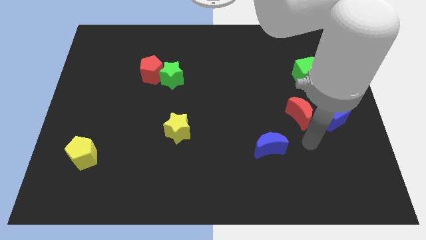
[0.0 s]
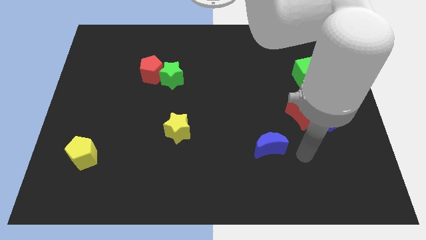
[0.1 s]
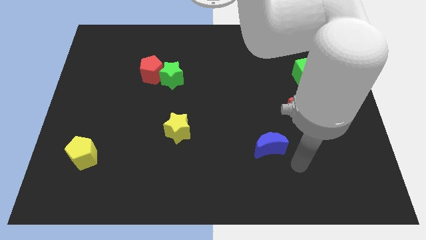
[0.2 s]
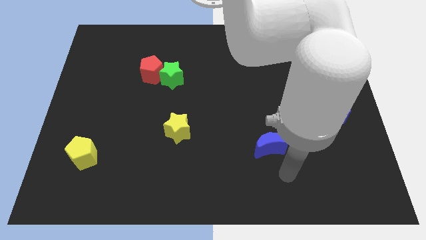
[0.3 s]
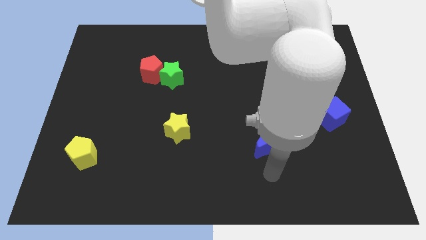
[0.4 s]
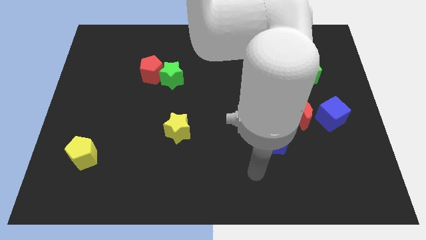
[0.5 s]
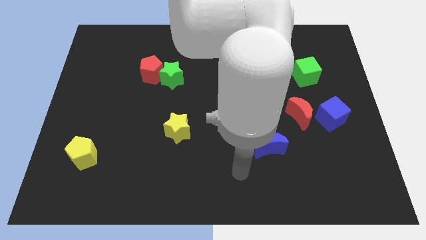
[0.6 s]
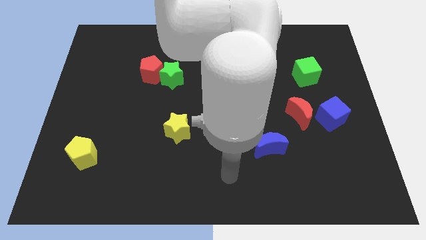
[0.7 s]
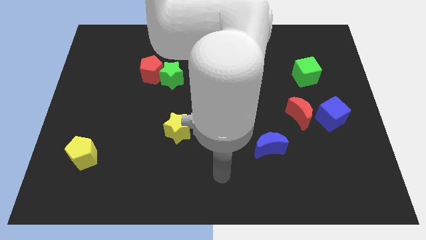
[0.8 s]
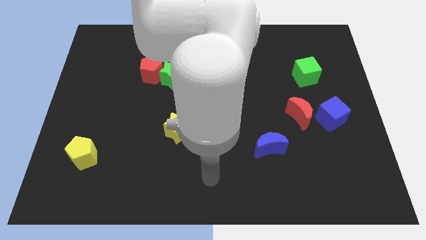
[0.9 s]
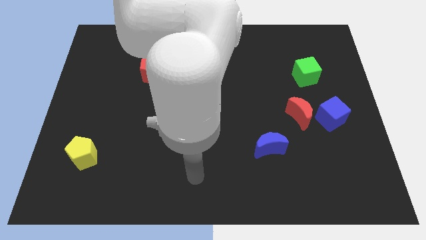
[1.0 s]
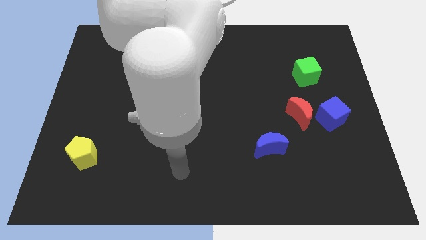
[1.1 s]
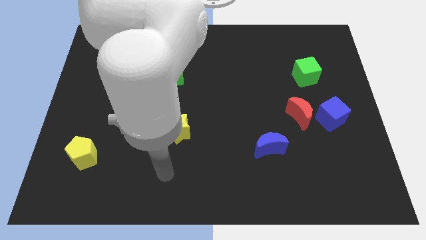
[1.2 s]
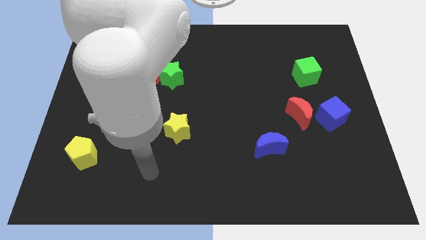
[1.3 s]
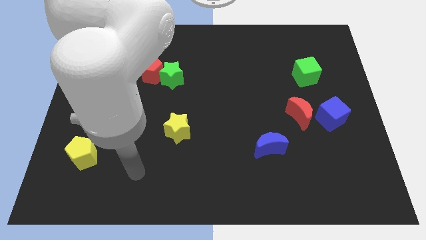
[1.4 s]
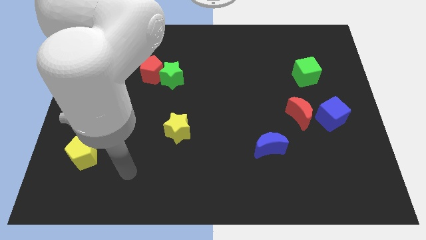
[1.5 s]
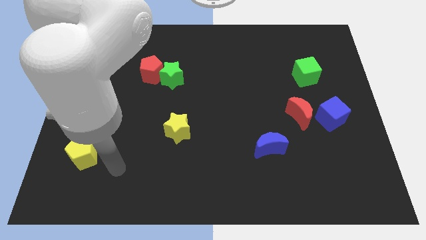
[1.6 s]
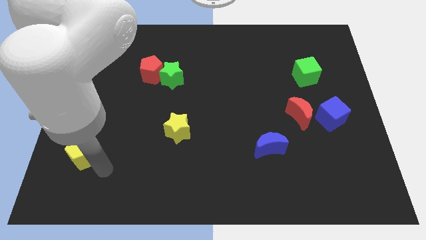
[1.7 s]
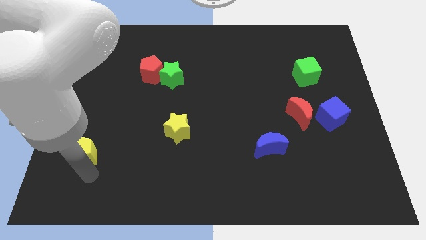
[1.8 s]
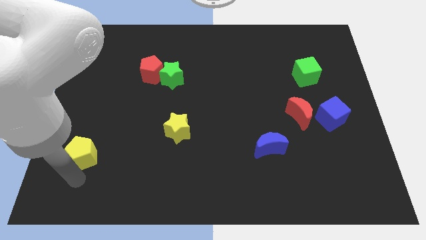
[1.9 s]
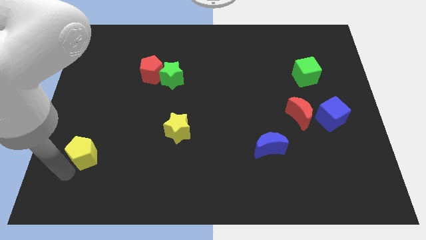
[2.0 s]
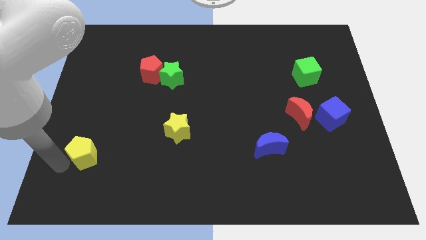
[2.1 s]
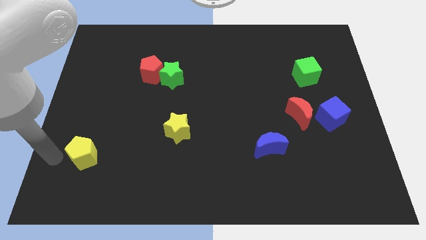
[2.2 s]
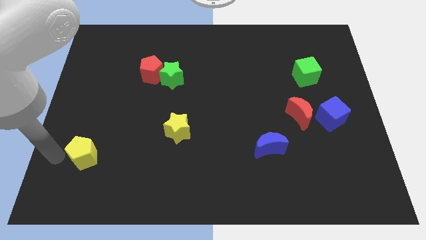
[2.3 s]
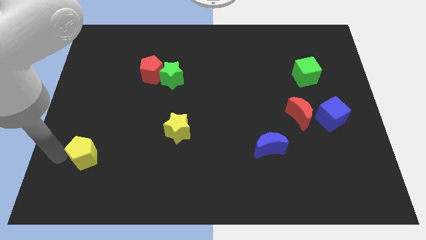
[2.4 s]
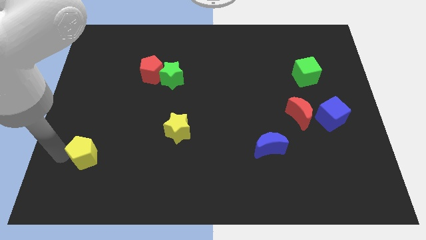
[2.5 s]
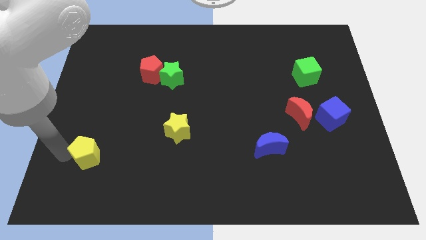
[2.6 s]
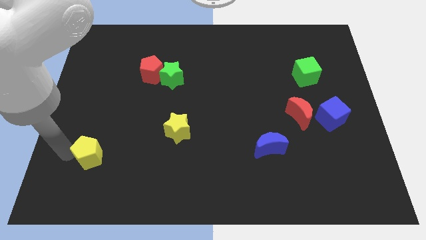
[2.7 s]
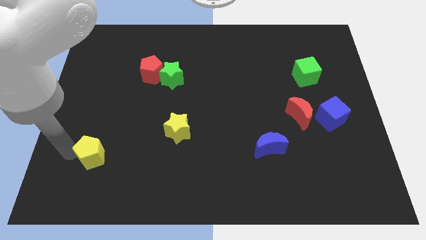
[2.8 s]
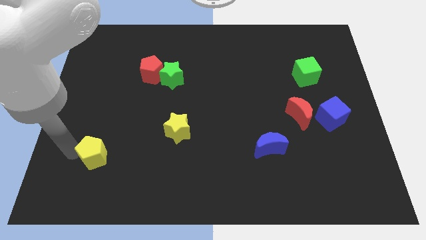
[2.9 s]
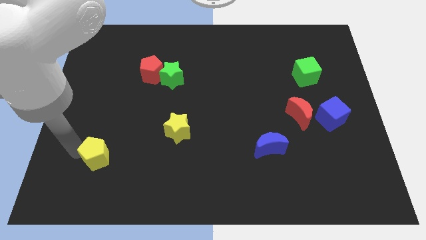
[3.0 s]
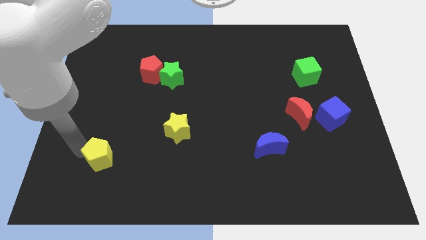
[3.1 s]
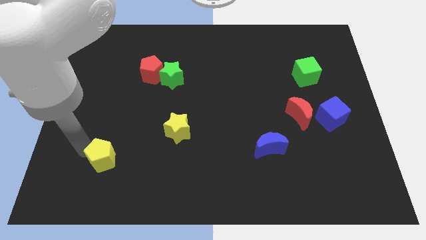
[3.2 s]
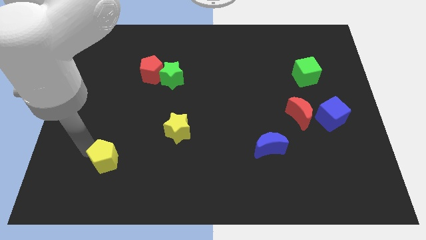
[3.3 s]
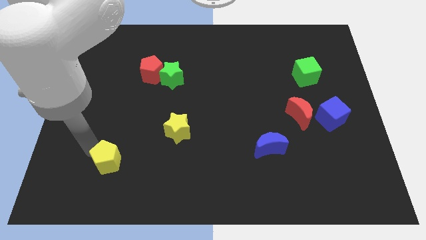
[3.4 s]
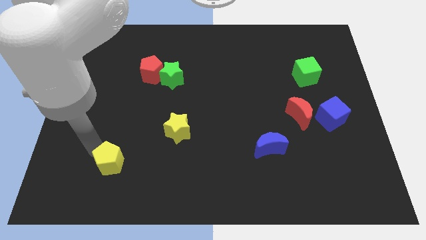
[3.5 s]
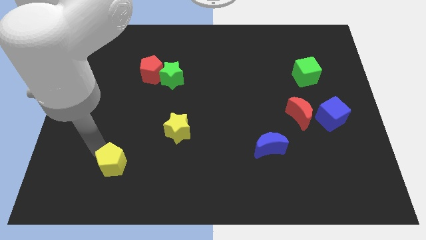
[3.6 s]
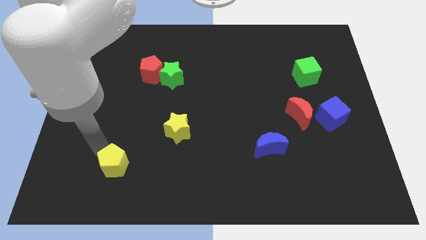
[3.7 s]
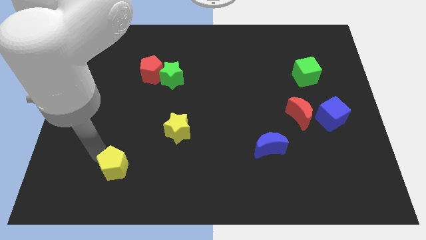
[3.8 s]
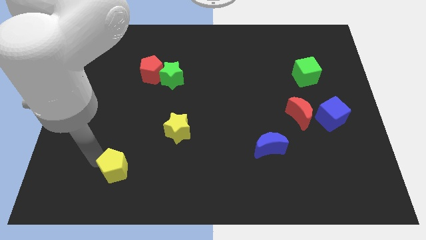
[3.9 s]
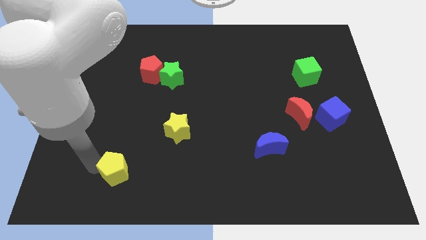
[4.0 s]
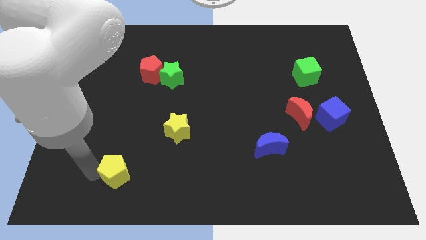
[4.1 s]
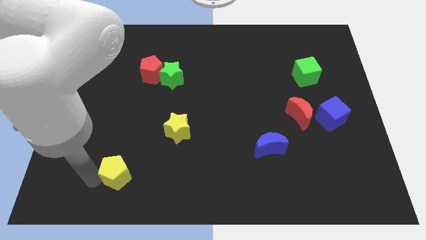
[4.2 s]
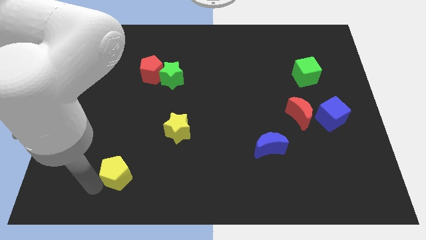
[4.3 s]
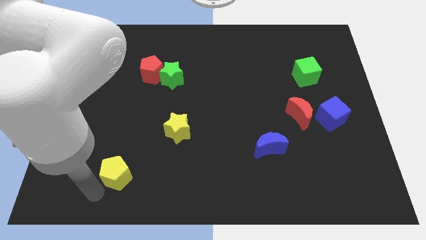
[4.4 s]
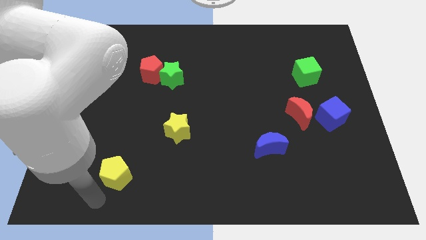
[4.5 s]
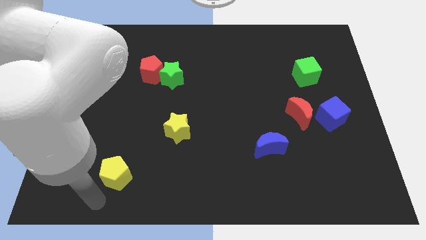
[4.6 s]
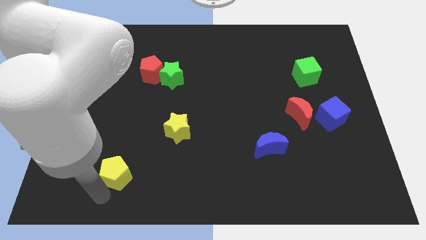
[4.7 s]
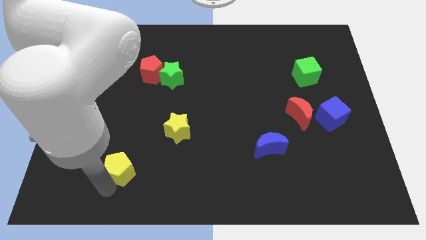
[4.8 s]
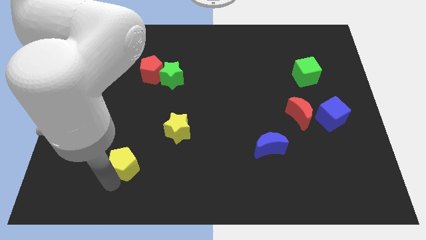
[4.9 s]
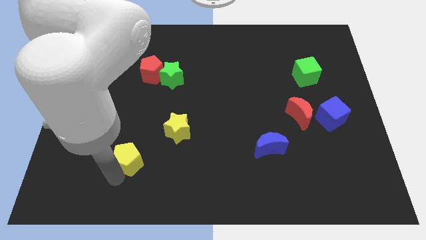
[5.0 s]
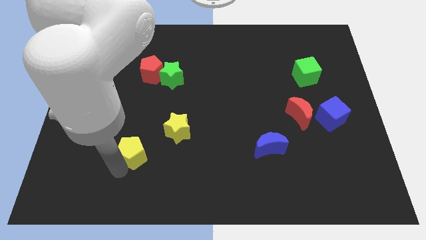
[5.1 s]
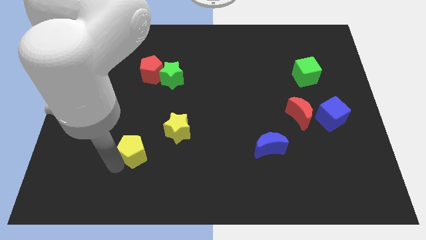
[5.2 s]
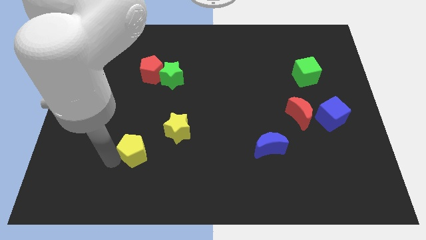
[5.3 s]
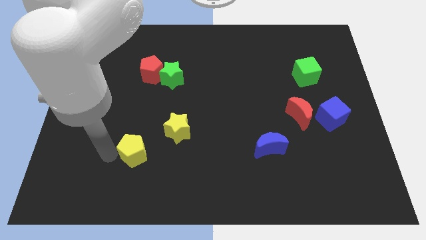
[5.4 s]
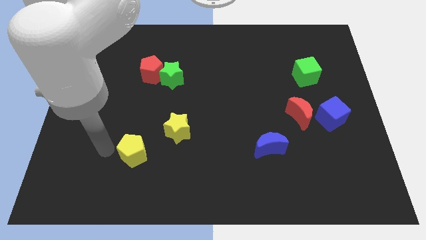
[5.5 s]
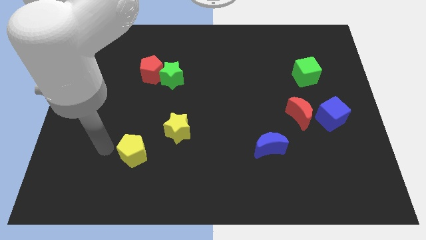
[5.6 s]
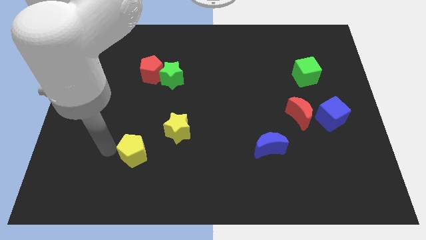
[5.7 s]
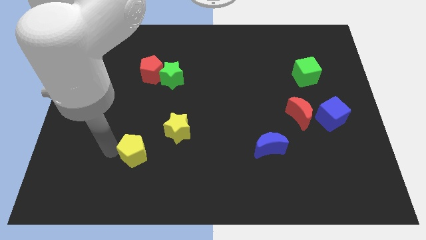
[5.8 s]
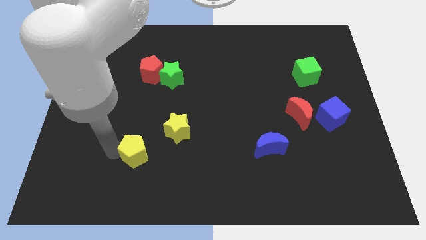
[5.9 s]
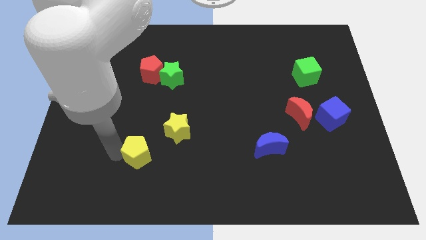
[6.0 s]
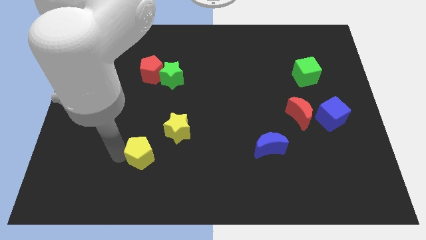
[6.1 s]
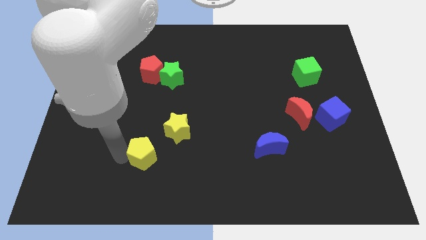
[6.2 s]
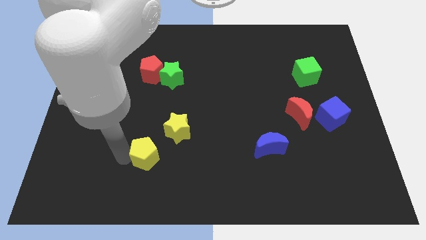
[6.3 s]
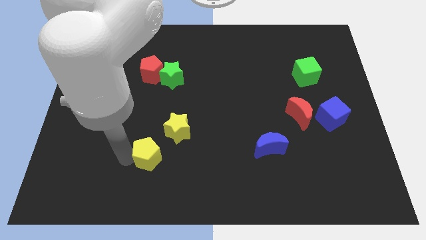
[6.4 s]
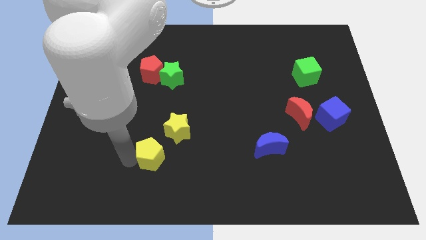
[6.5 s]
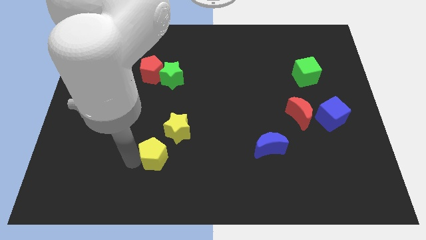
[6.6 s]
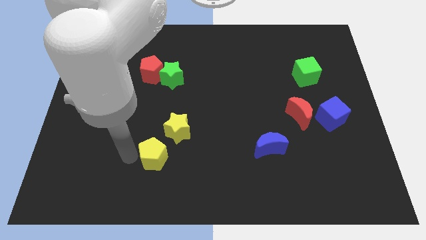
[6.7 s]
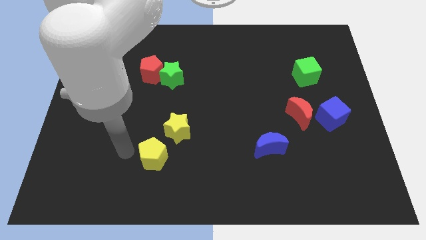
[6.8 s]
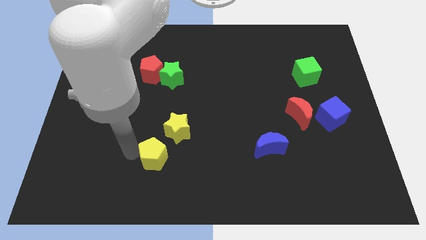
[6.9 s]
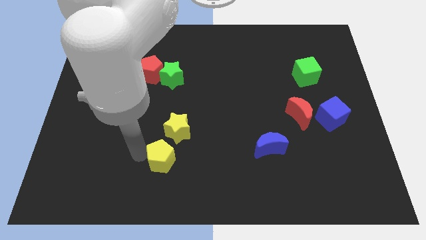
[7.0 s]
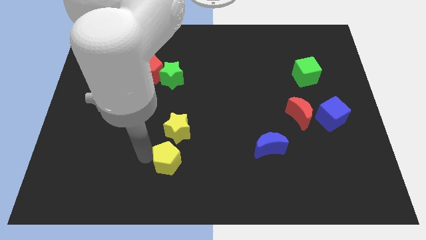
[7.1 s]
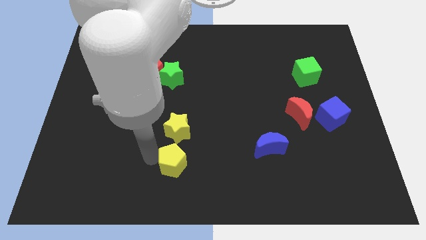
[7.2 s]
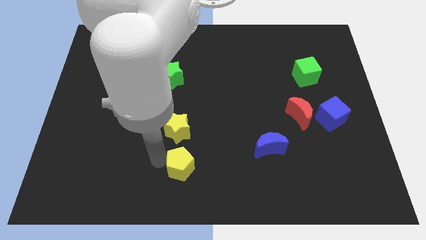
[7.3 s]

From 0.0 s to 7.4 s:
push the yellow pentagon to the right

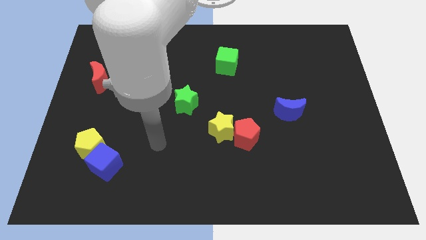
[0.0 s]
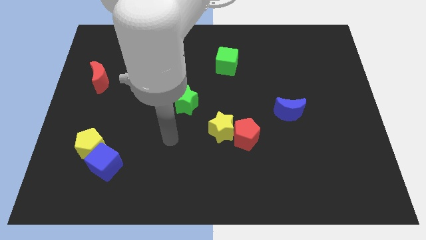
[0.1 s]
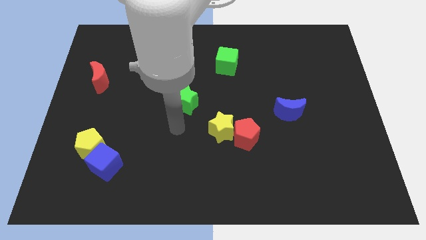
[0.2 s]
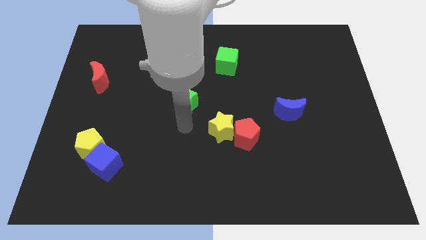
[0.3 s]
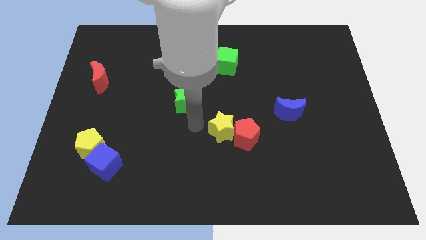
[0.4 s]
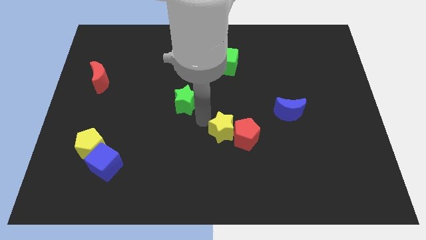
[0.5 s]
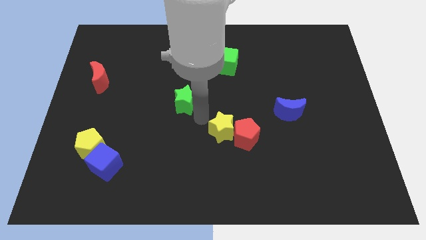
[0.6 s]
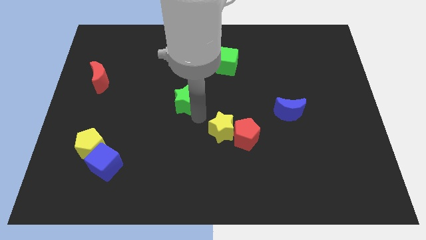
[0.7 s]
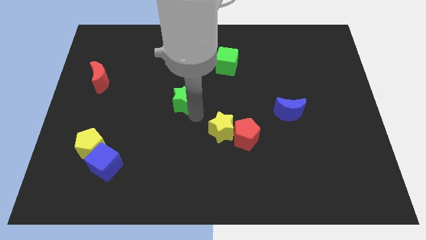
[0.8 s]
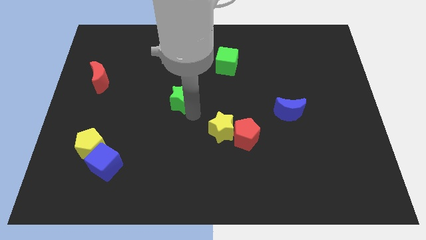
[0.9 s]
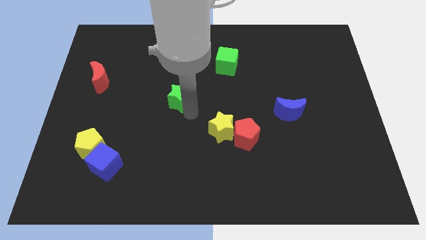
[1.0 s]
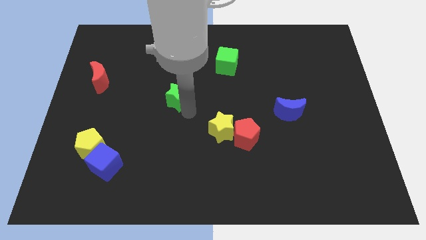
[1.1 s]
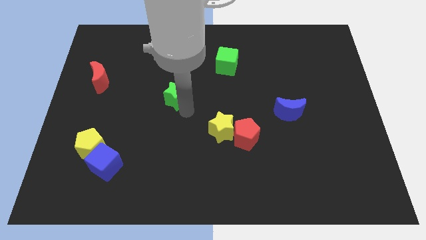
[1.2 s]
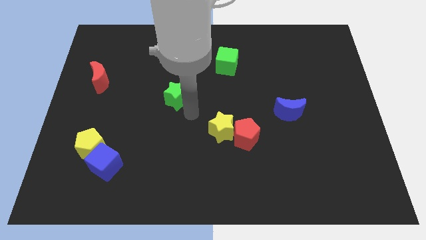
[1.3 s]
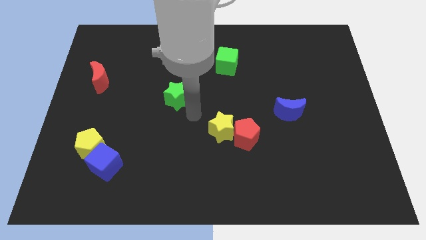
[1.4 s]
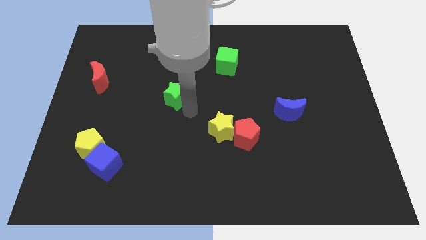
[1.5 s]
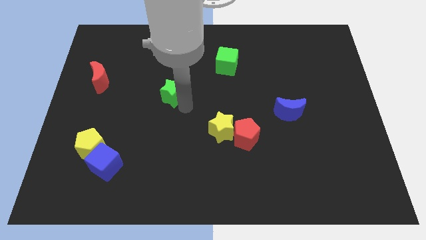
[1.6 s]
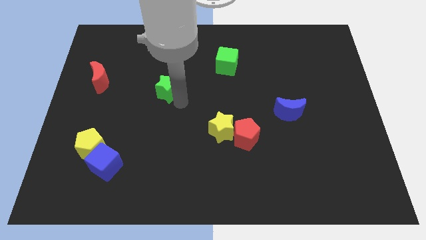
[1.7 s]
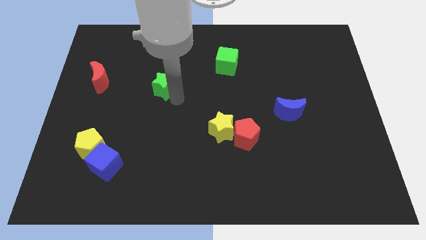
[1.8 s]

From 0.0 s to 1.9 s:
push the green star up and left somewhat
